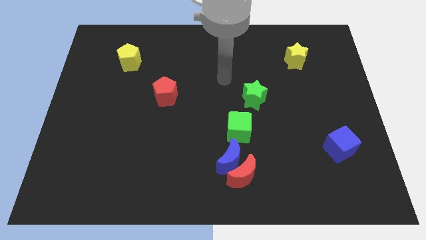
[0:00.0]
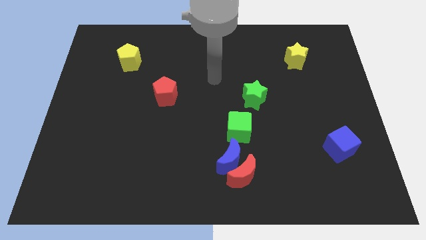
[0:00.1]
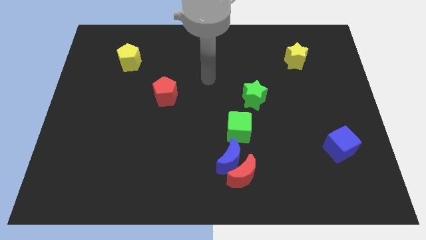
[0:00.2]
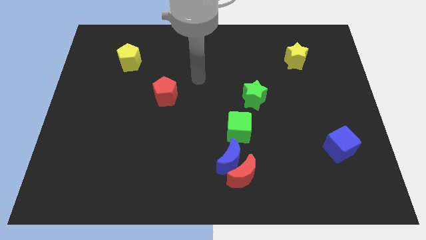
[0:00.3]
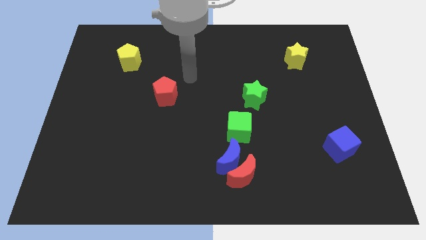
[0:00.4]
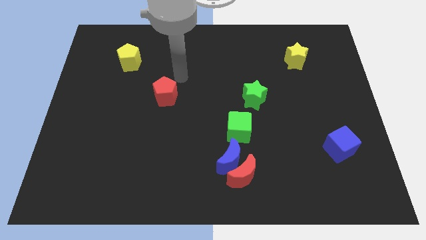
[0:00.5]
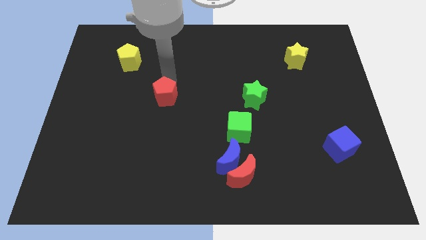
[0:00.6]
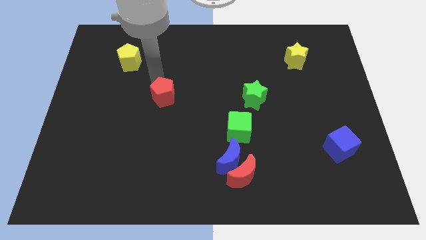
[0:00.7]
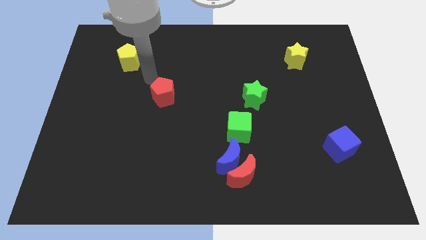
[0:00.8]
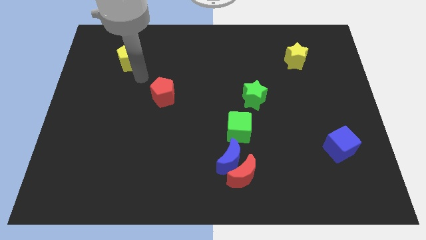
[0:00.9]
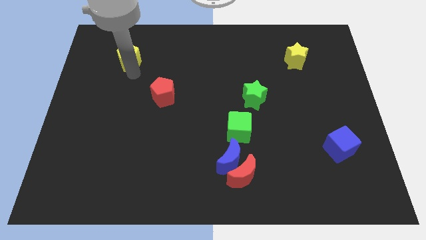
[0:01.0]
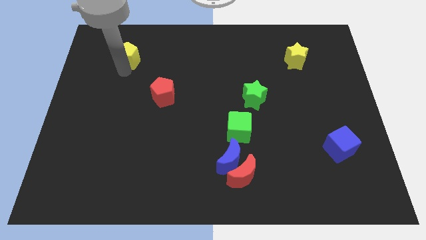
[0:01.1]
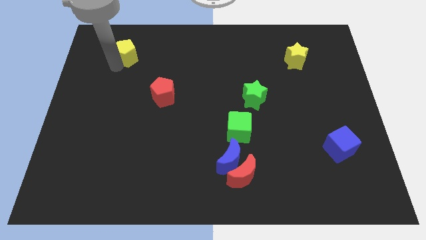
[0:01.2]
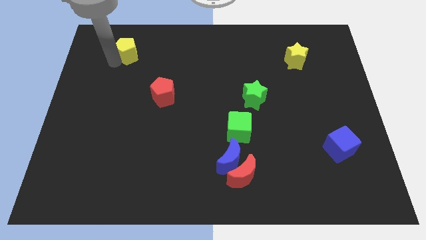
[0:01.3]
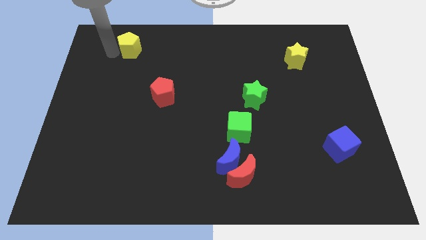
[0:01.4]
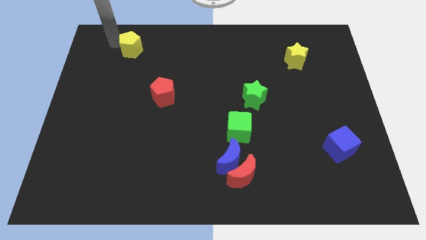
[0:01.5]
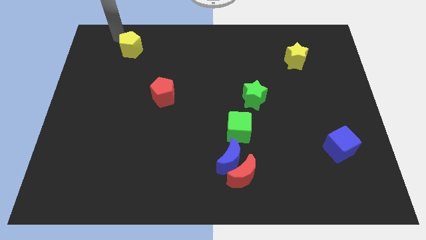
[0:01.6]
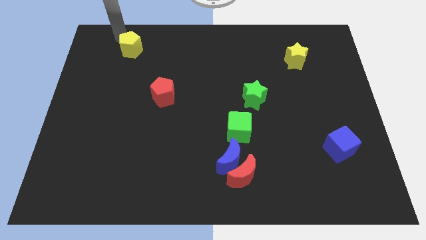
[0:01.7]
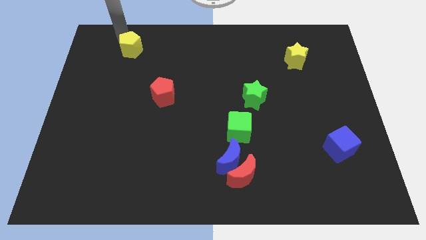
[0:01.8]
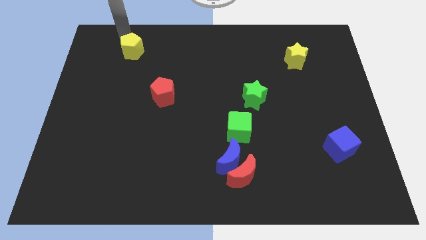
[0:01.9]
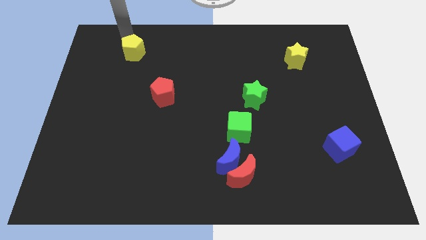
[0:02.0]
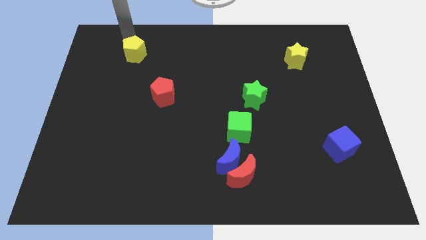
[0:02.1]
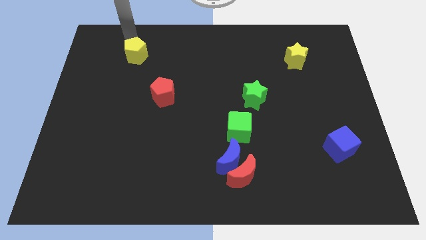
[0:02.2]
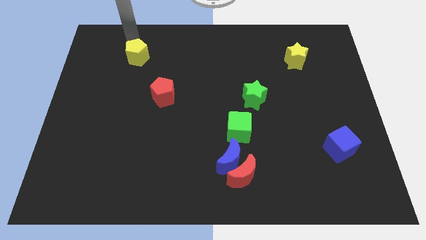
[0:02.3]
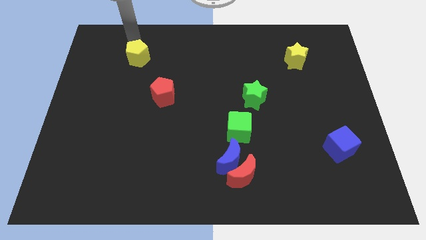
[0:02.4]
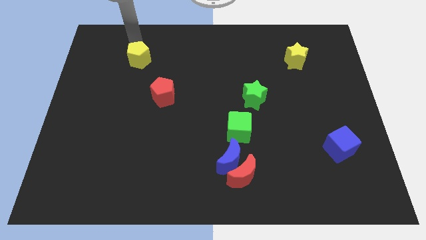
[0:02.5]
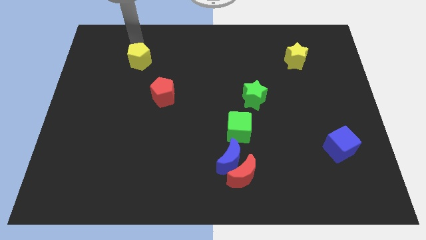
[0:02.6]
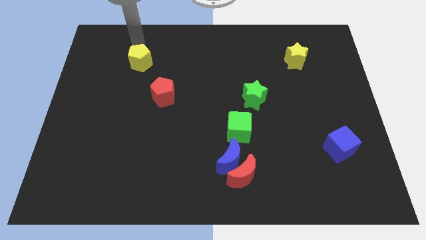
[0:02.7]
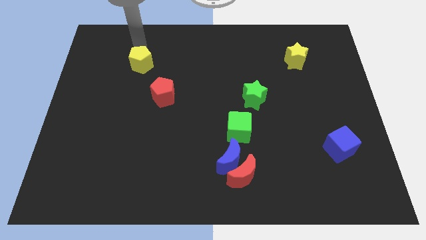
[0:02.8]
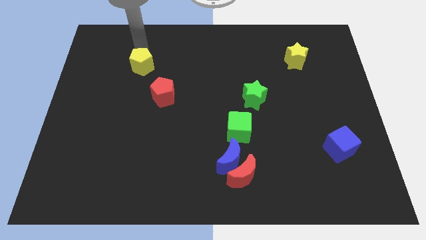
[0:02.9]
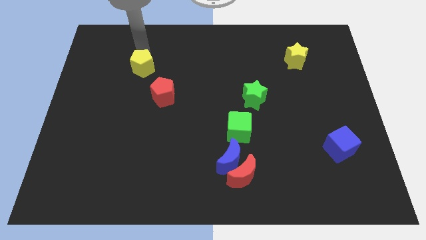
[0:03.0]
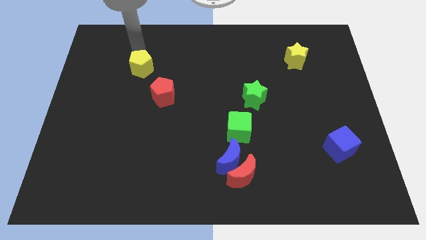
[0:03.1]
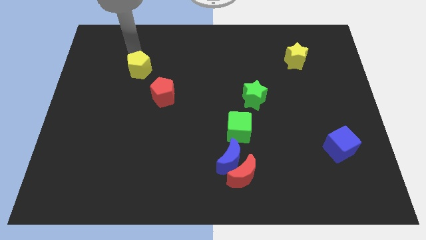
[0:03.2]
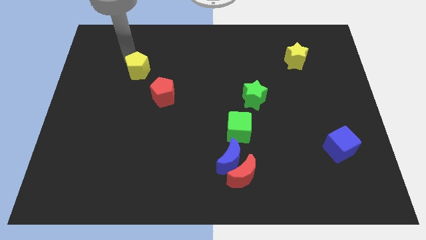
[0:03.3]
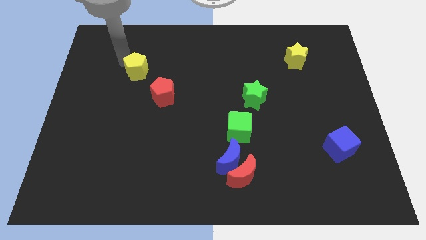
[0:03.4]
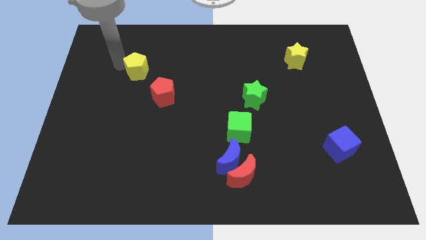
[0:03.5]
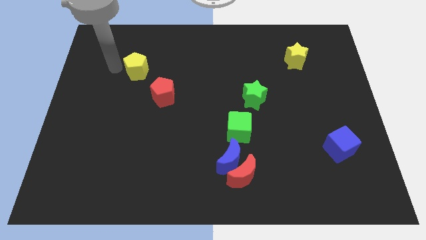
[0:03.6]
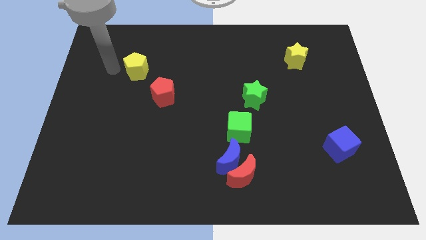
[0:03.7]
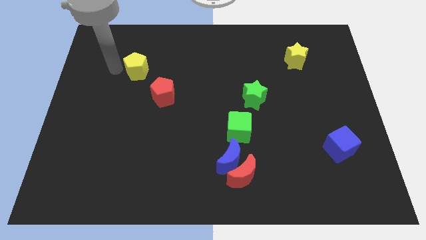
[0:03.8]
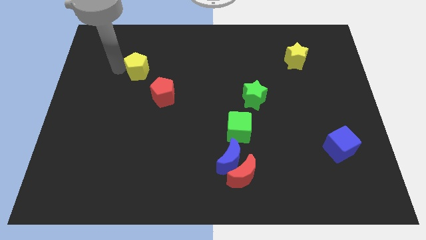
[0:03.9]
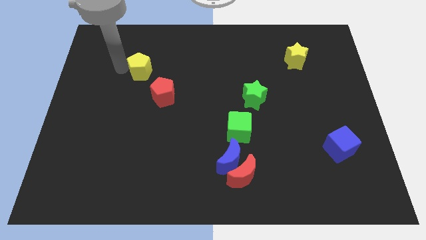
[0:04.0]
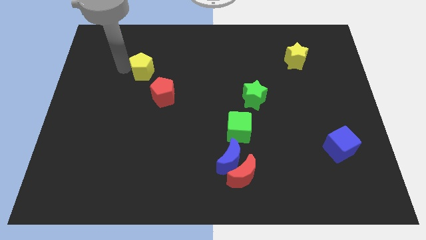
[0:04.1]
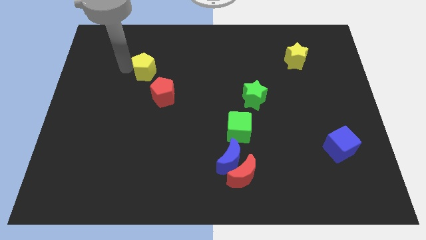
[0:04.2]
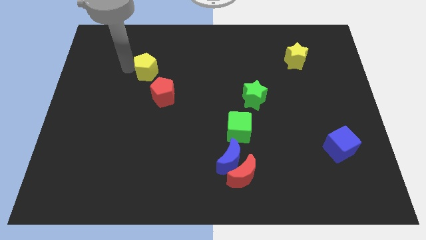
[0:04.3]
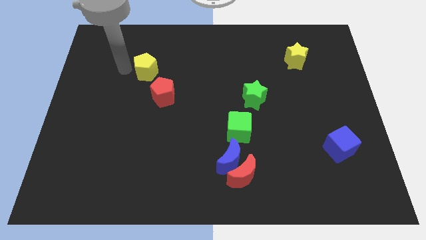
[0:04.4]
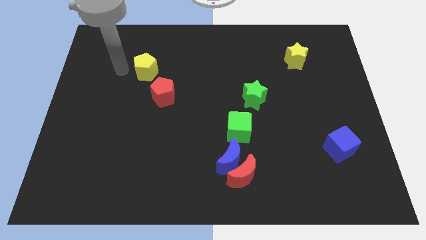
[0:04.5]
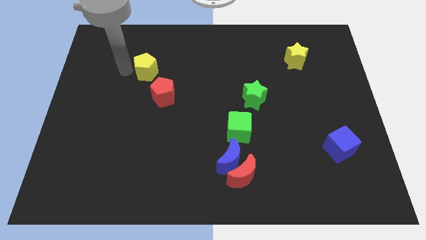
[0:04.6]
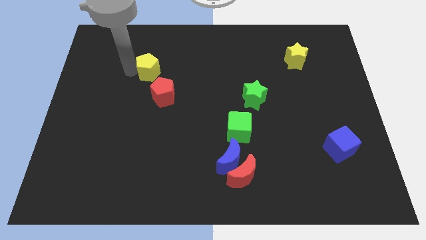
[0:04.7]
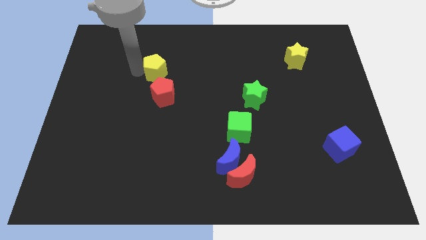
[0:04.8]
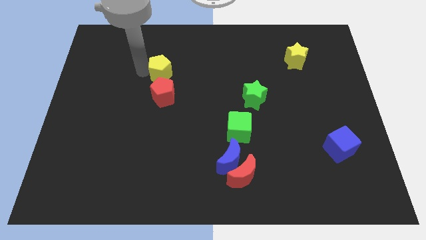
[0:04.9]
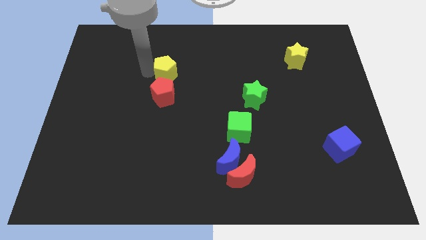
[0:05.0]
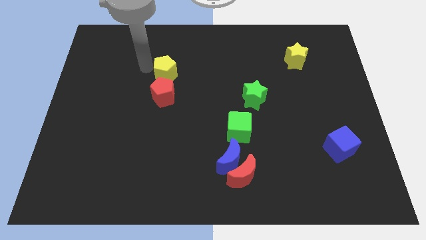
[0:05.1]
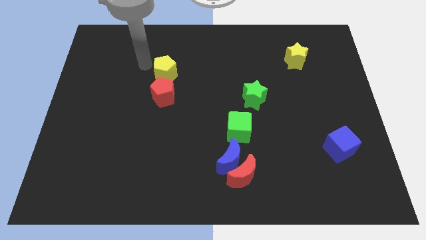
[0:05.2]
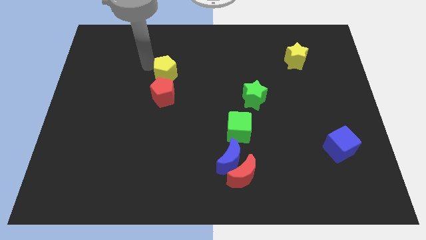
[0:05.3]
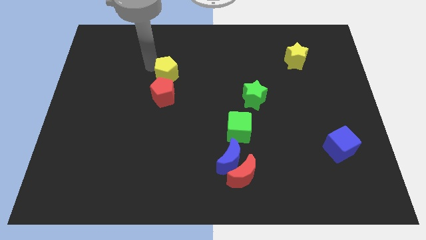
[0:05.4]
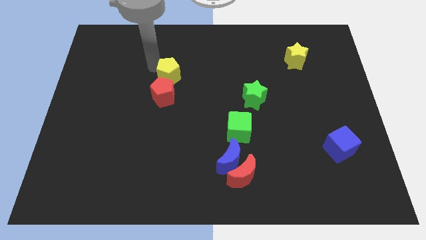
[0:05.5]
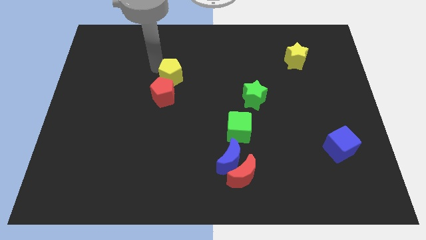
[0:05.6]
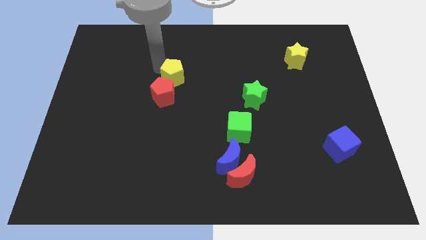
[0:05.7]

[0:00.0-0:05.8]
slide the yellow pentagon to the center of the board

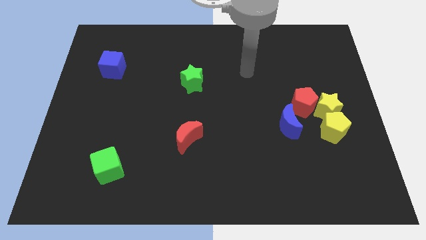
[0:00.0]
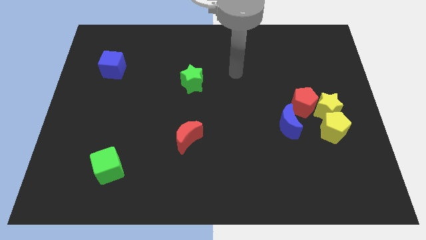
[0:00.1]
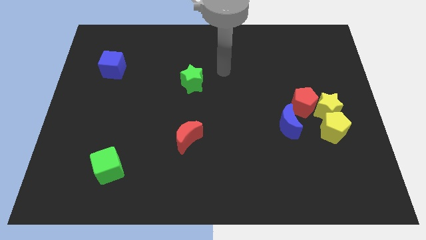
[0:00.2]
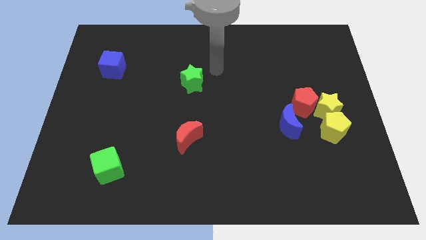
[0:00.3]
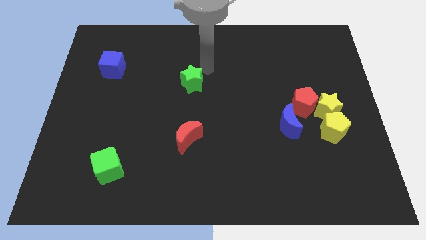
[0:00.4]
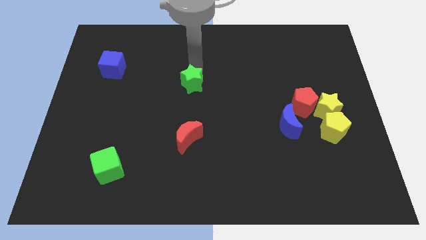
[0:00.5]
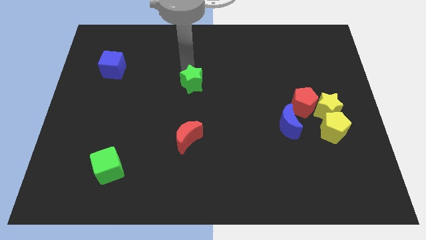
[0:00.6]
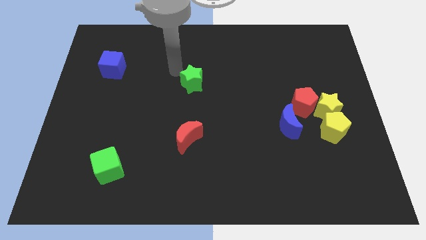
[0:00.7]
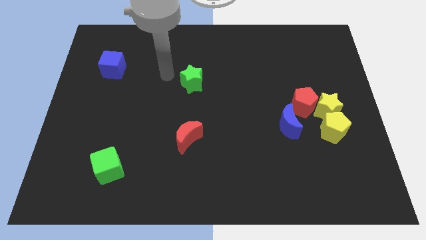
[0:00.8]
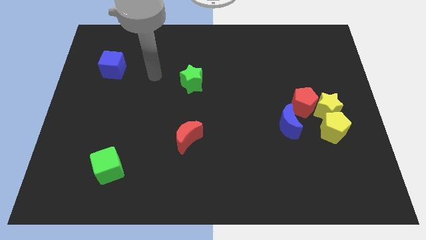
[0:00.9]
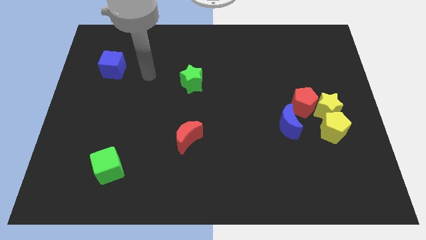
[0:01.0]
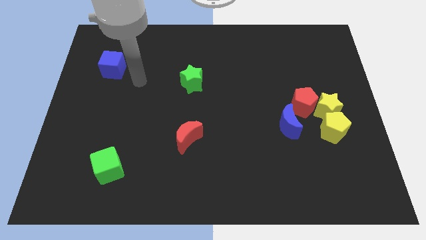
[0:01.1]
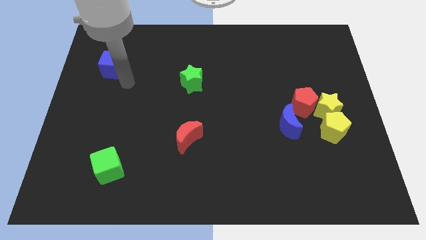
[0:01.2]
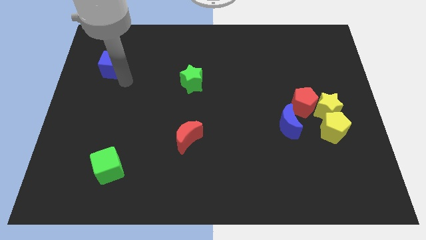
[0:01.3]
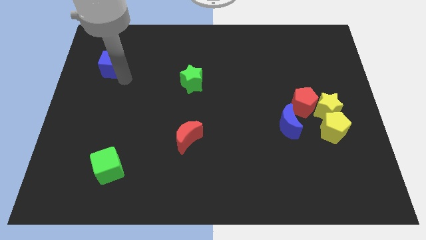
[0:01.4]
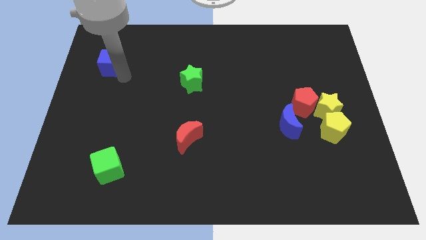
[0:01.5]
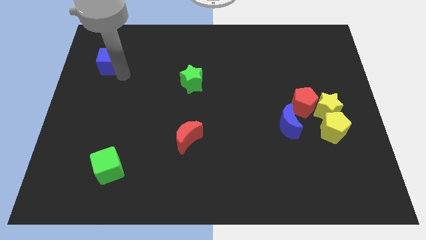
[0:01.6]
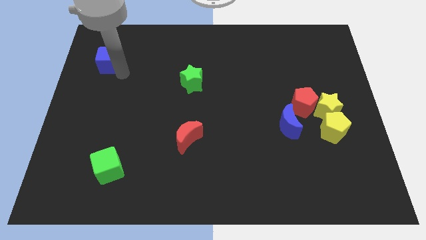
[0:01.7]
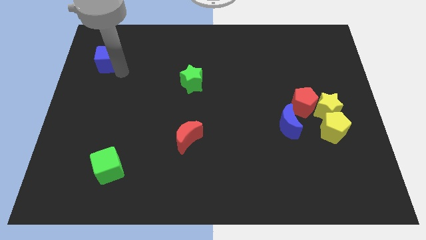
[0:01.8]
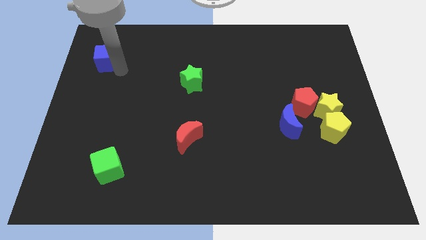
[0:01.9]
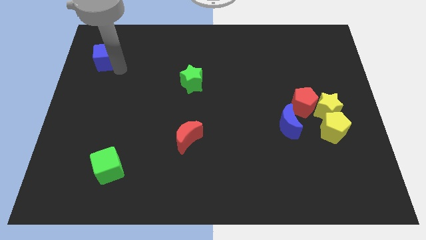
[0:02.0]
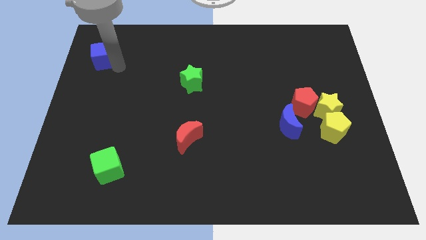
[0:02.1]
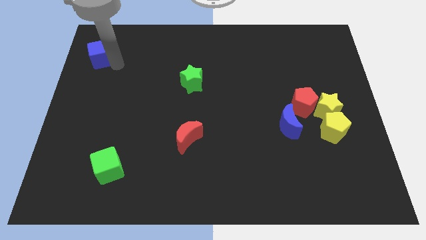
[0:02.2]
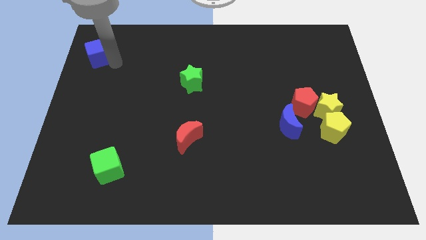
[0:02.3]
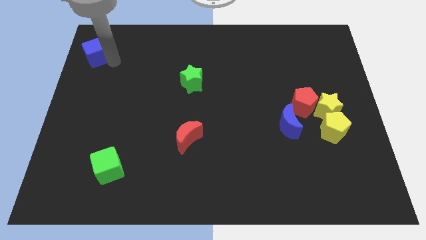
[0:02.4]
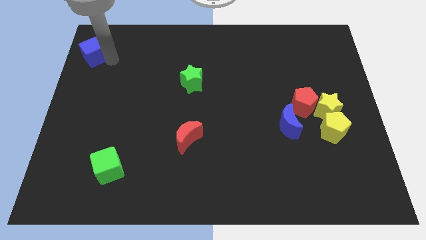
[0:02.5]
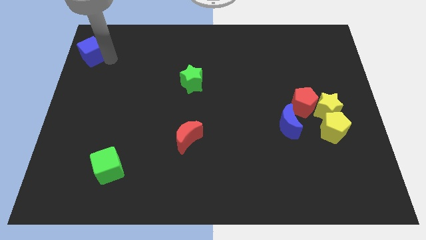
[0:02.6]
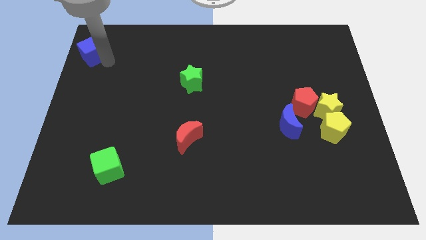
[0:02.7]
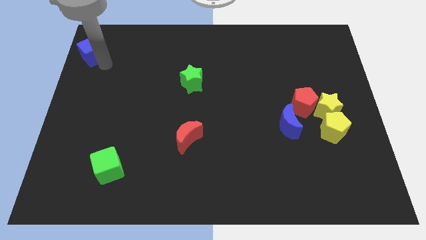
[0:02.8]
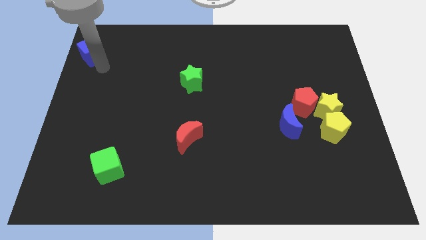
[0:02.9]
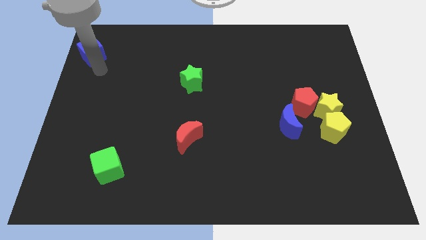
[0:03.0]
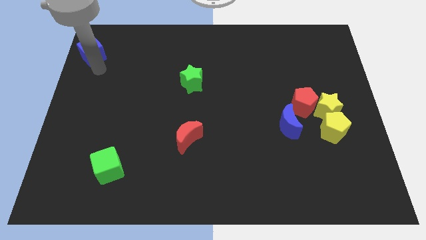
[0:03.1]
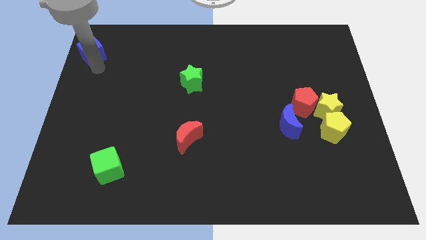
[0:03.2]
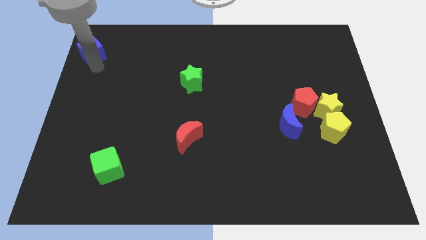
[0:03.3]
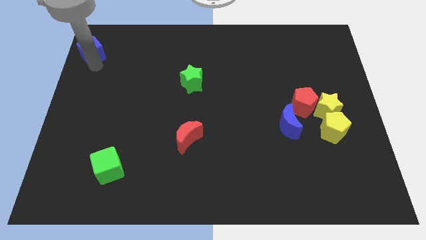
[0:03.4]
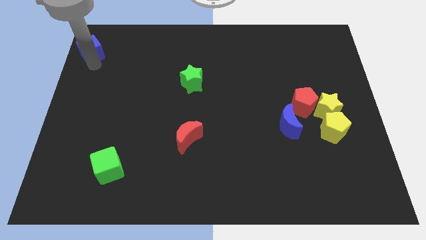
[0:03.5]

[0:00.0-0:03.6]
move the blue cube to the top left
